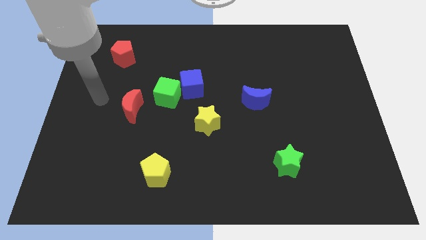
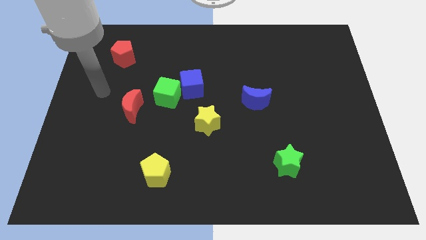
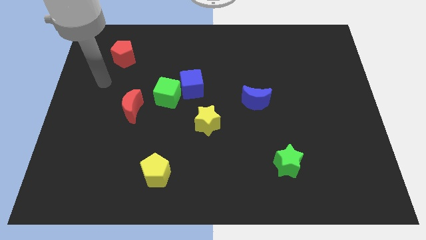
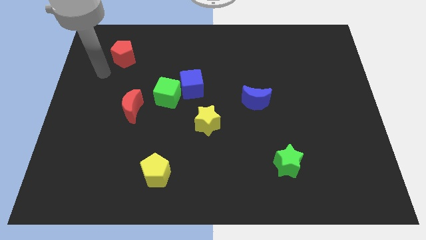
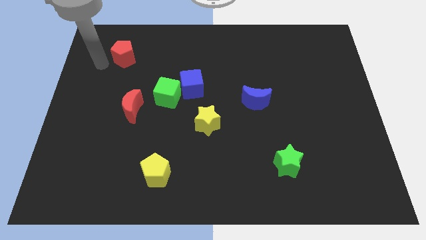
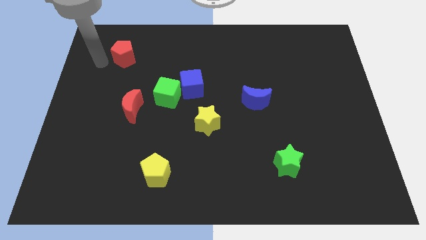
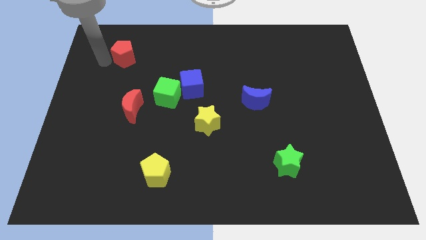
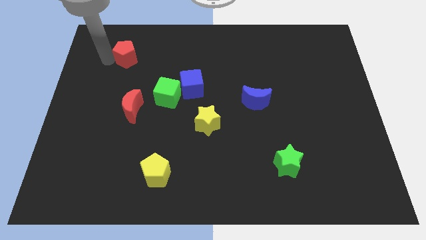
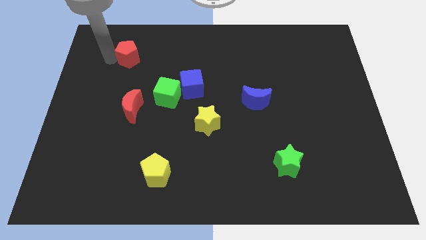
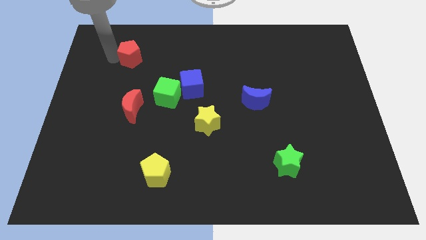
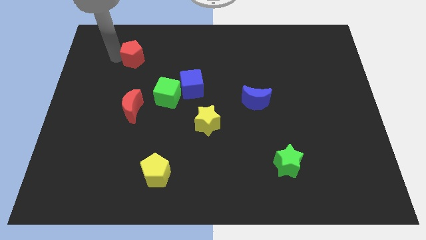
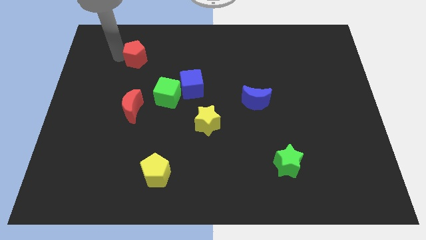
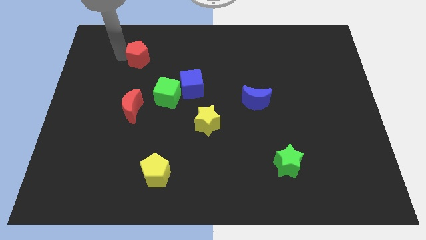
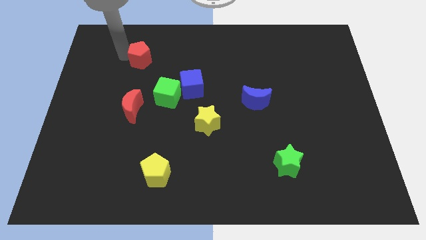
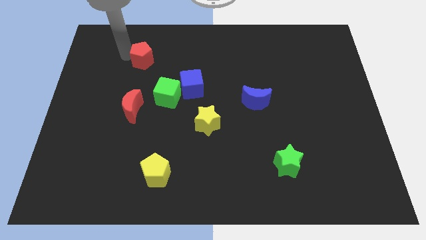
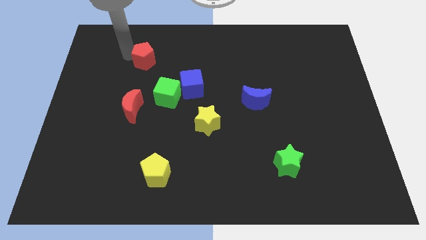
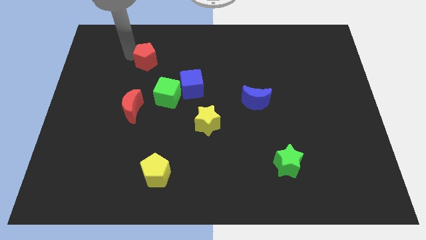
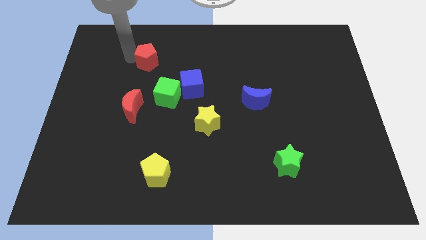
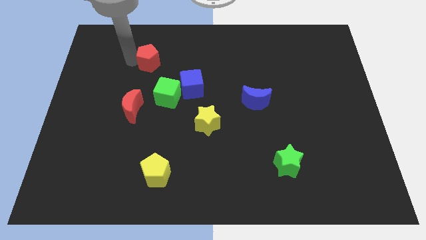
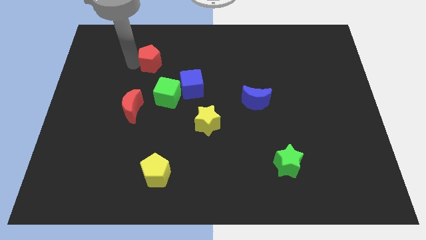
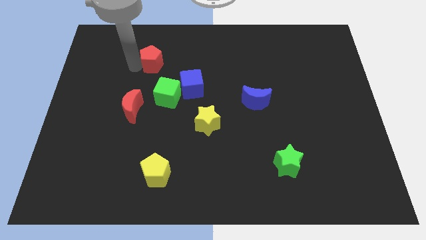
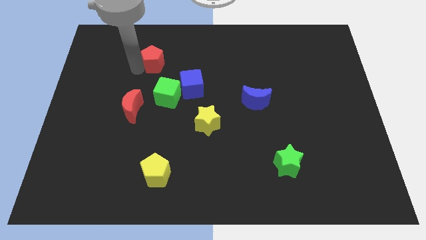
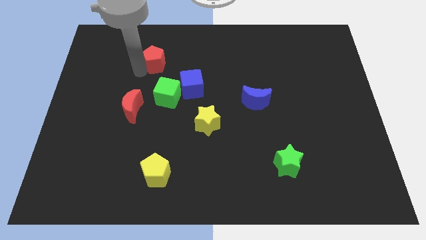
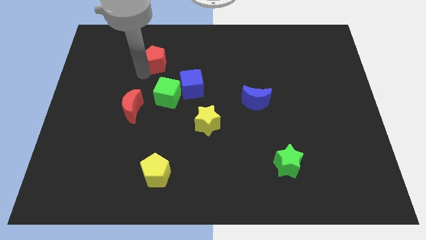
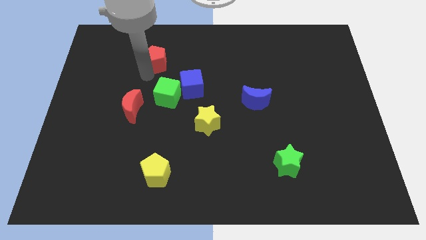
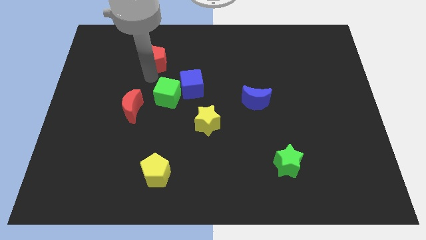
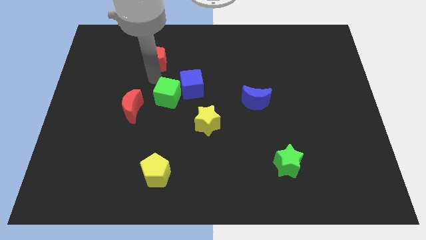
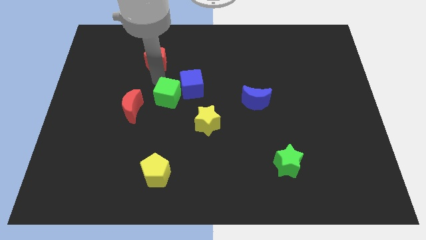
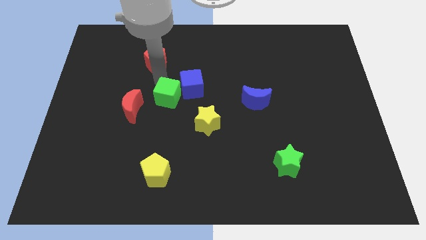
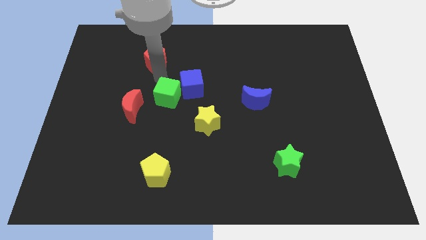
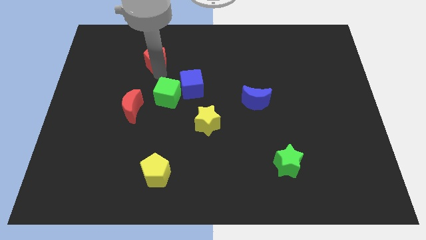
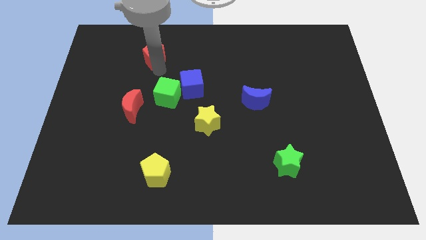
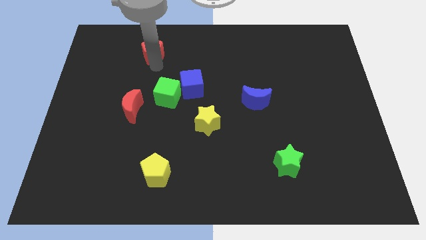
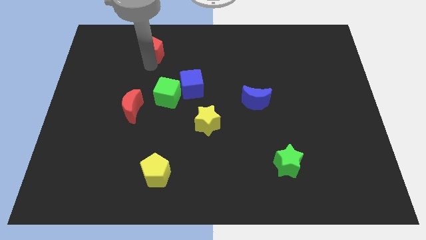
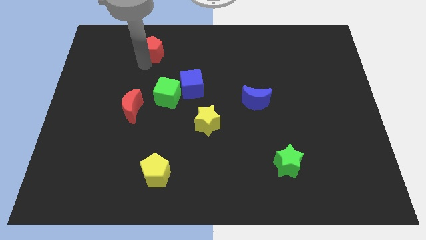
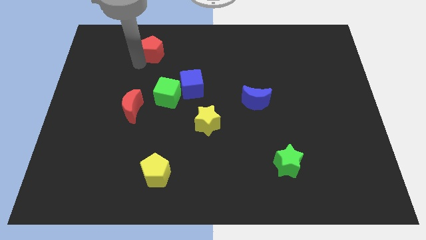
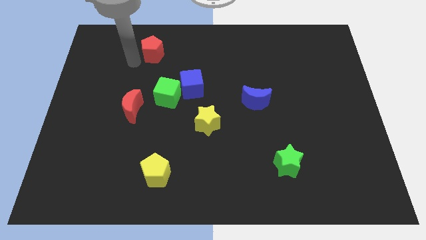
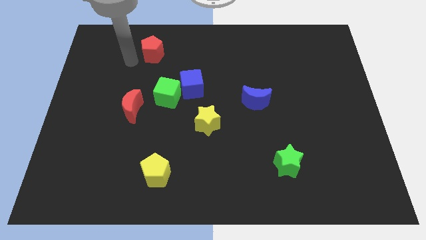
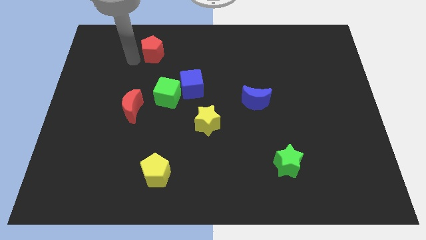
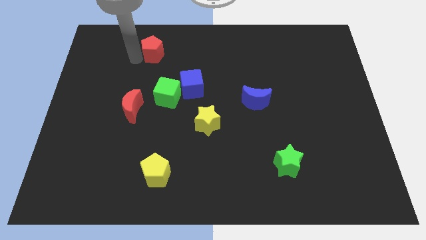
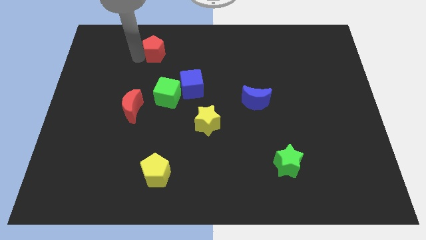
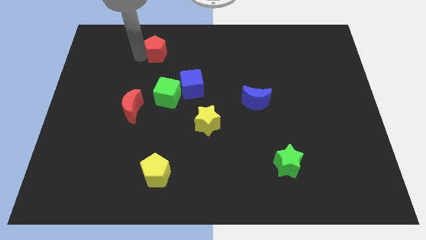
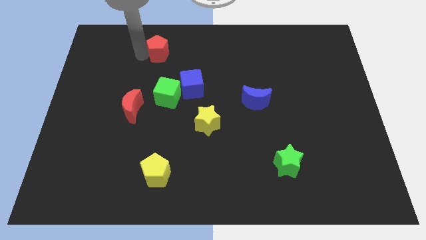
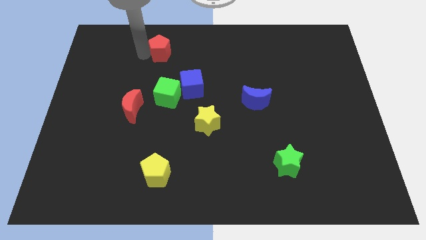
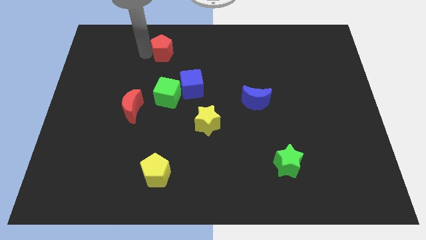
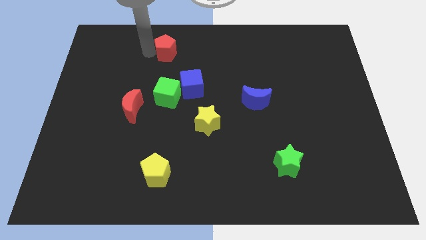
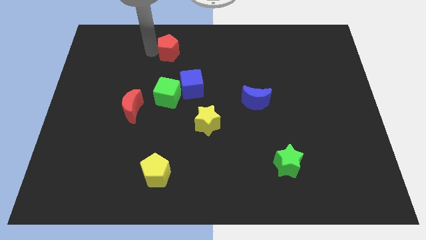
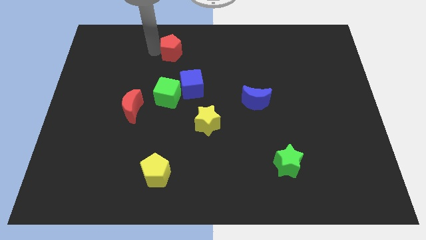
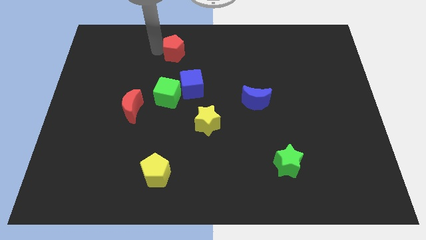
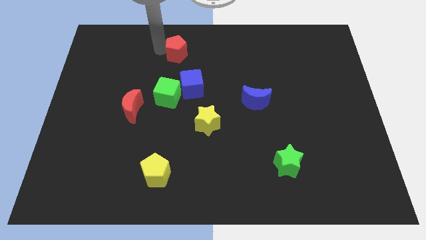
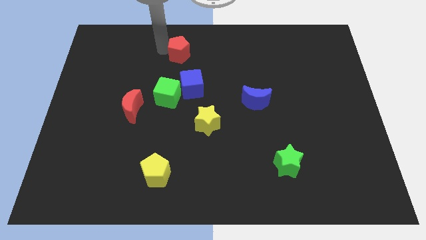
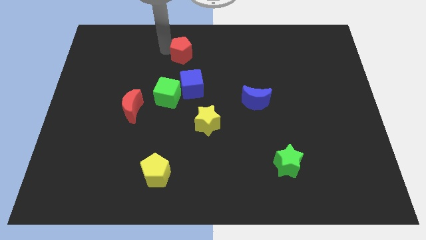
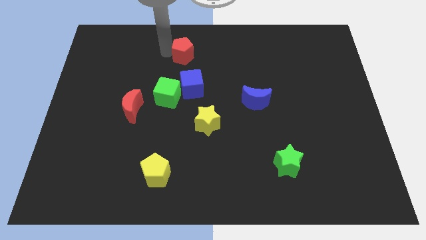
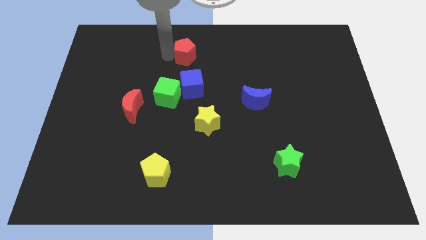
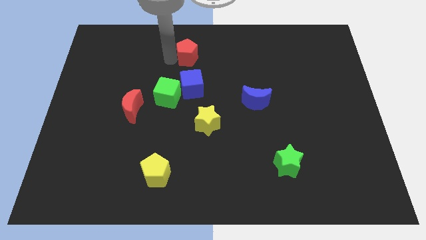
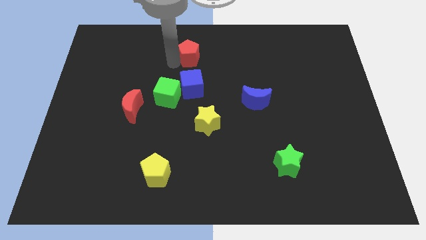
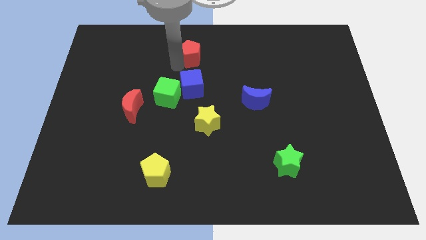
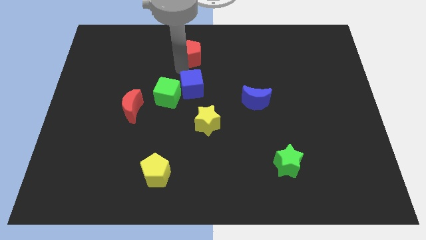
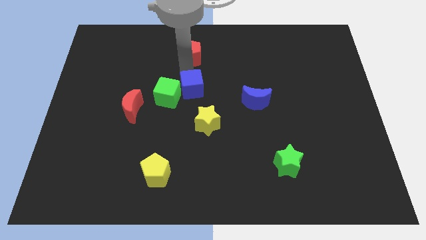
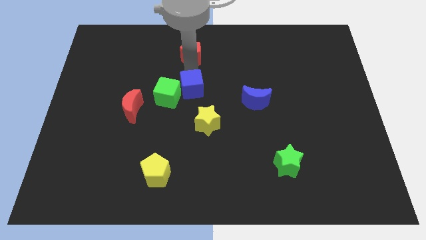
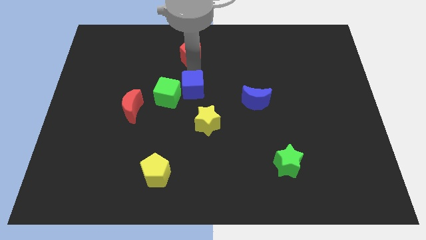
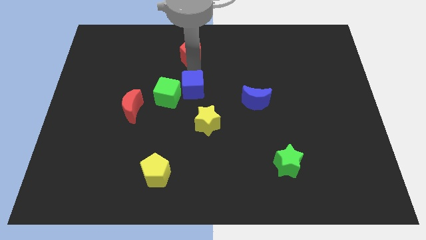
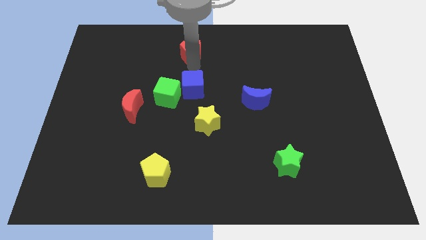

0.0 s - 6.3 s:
slide the red pentagon to the top side

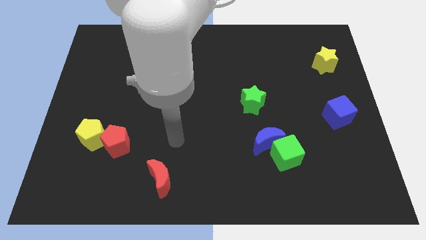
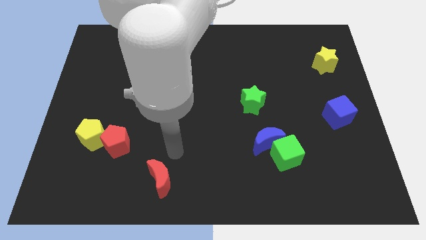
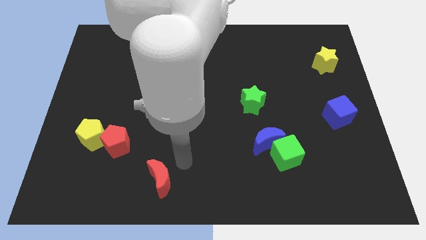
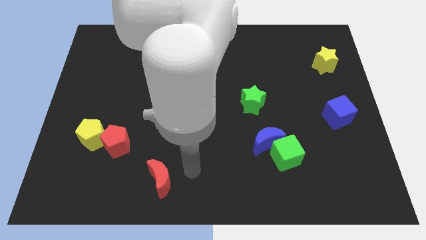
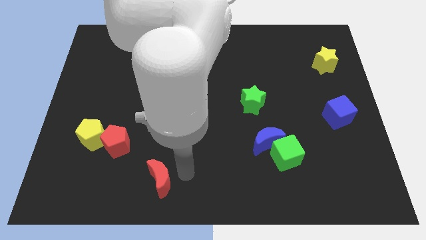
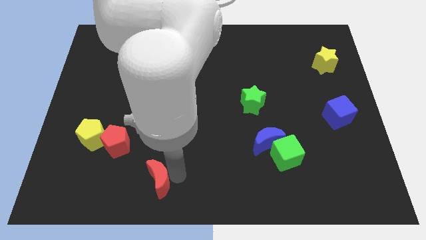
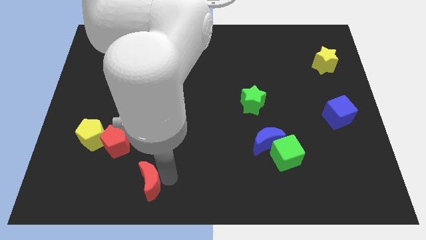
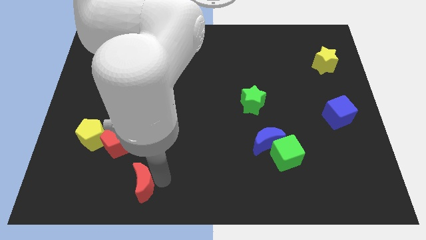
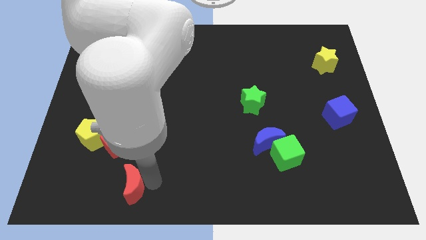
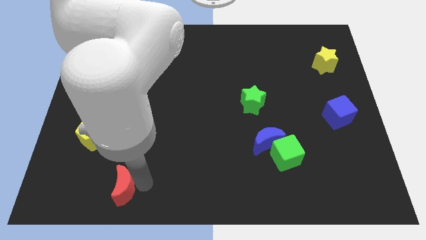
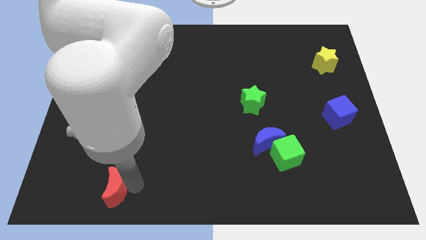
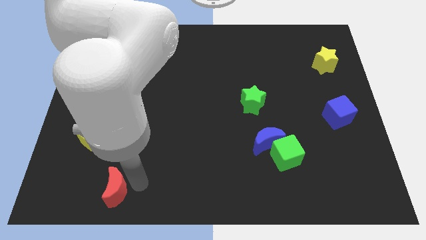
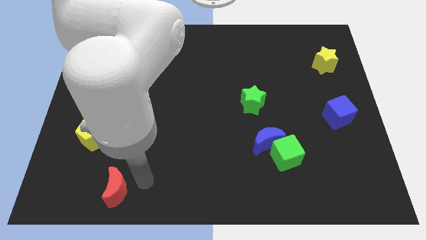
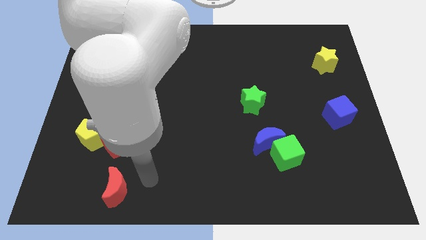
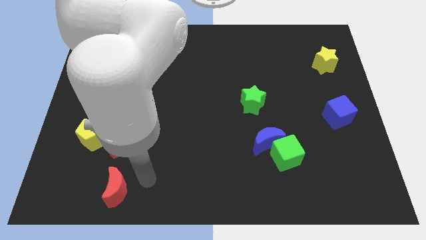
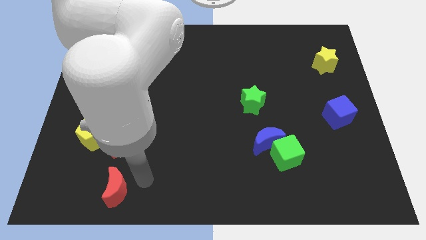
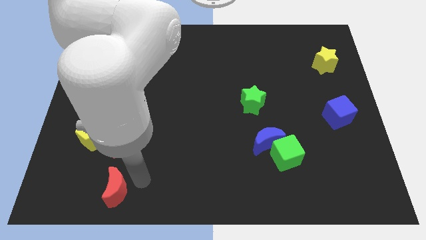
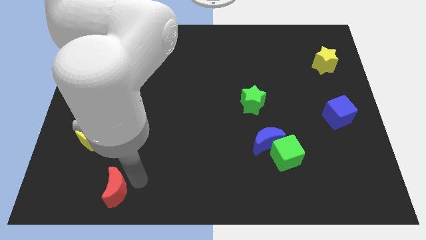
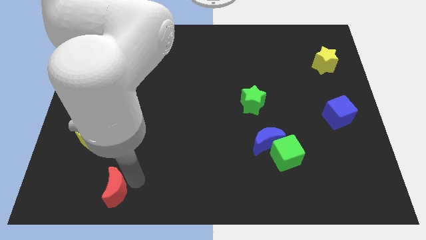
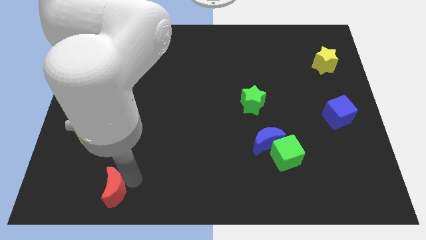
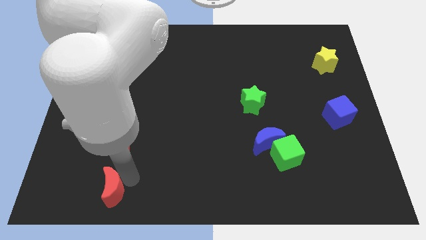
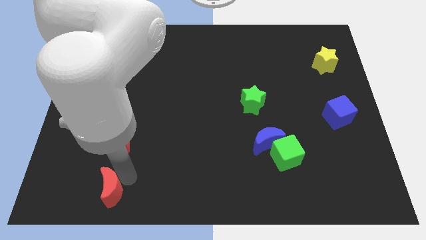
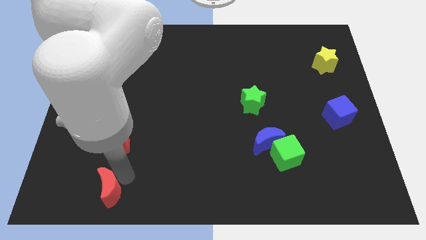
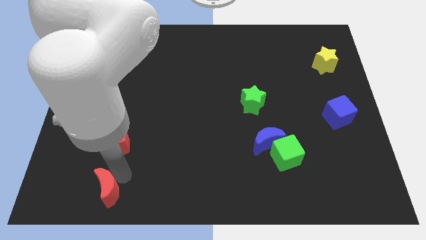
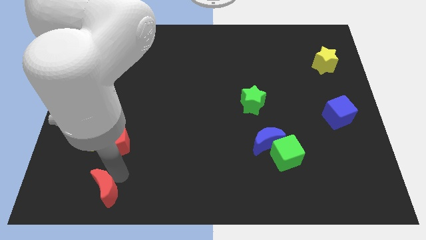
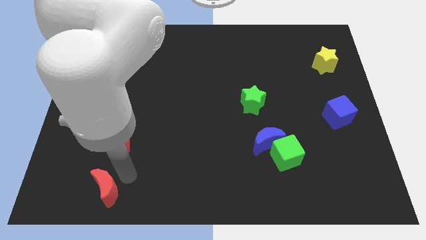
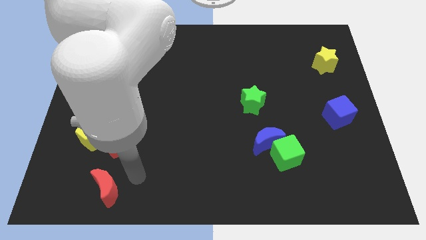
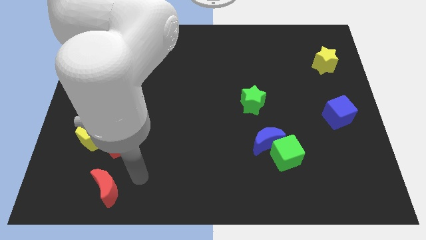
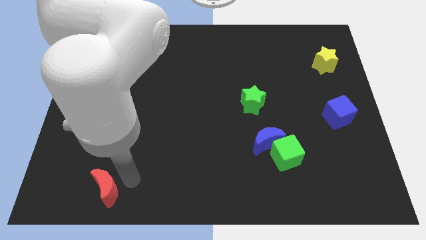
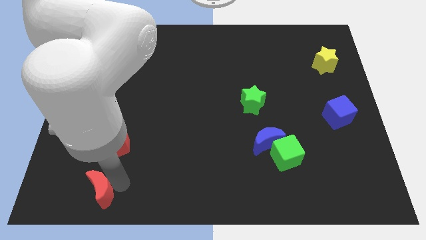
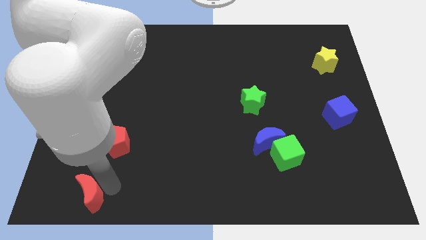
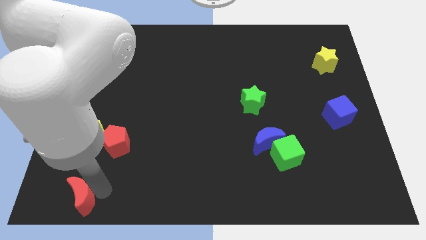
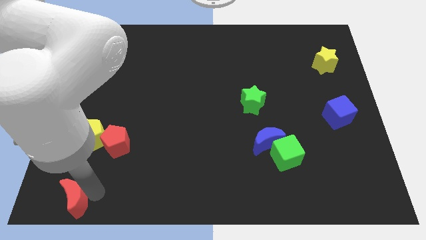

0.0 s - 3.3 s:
push the red moon to the lower left corner
